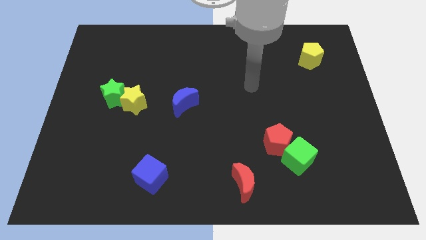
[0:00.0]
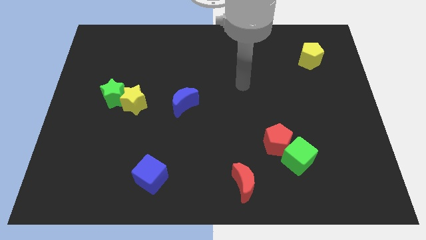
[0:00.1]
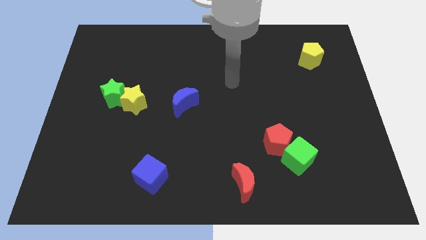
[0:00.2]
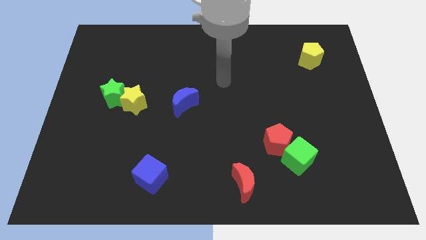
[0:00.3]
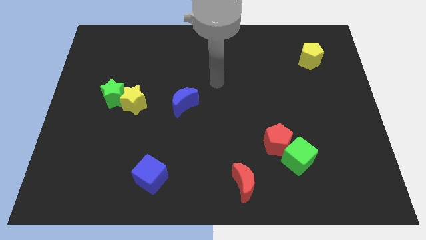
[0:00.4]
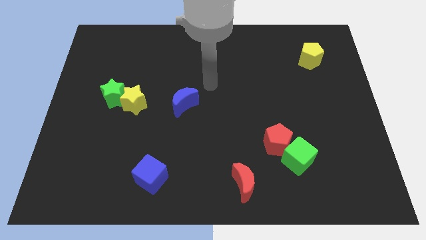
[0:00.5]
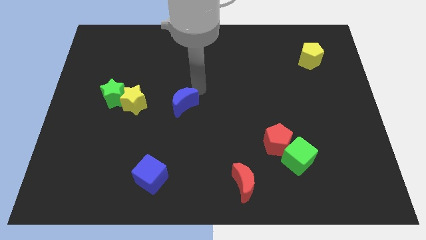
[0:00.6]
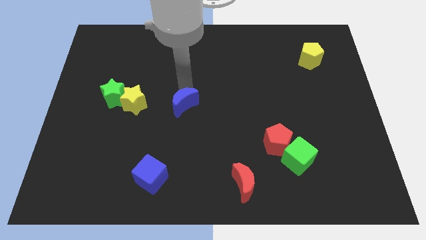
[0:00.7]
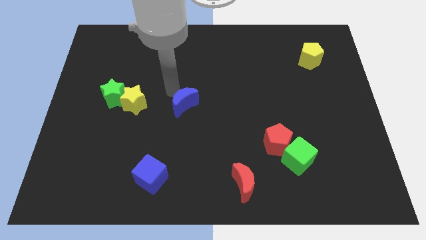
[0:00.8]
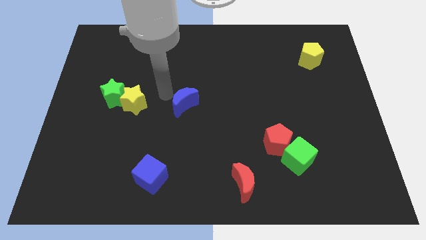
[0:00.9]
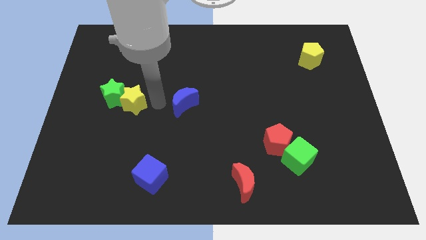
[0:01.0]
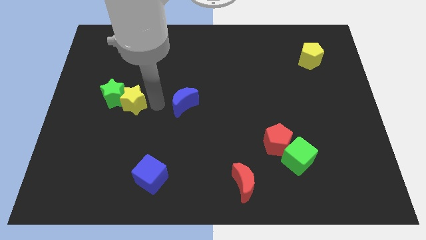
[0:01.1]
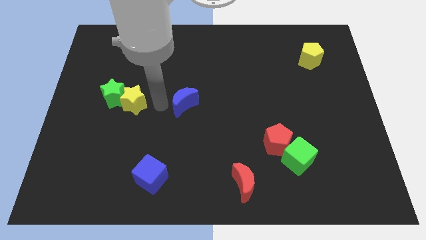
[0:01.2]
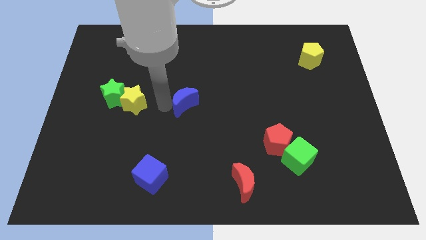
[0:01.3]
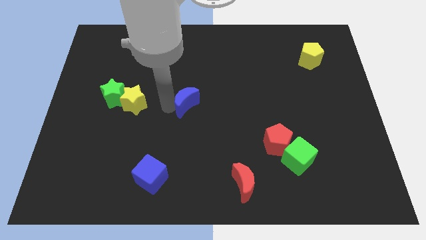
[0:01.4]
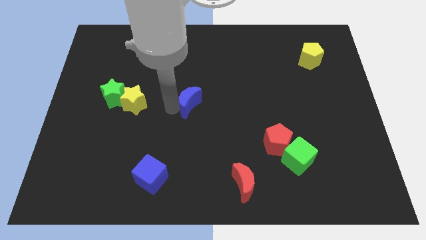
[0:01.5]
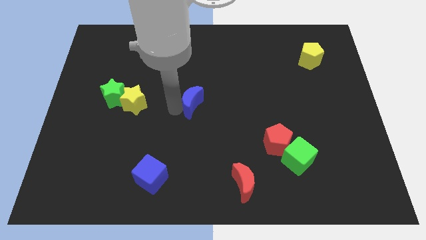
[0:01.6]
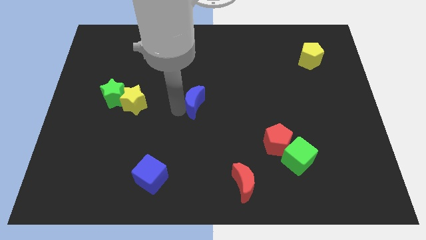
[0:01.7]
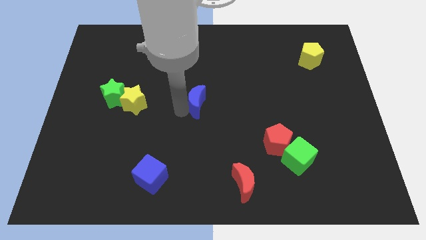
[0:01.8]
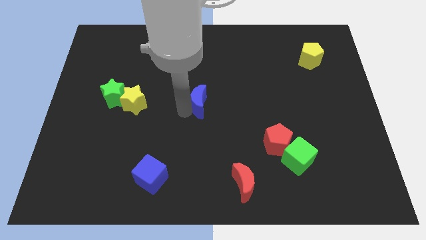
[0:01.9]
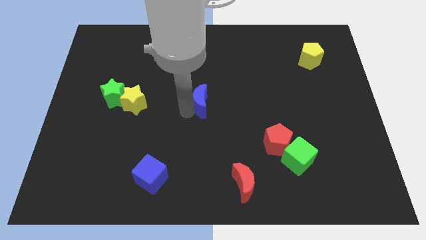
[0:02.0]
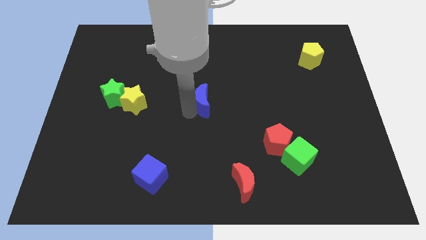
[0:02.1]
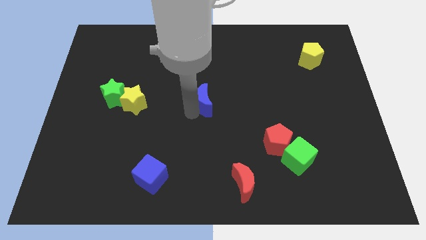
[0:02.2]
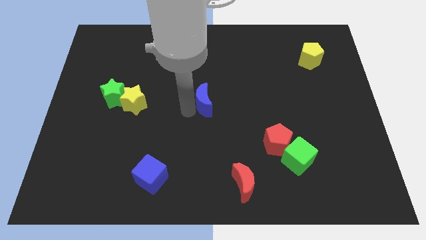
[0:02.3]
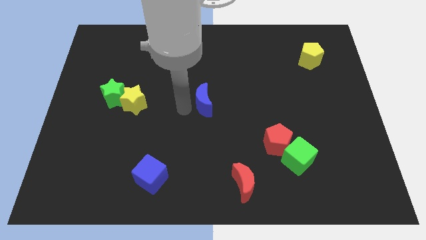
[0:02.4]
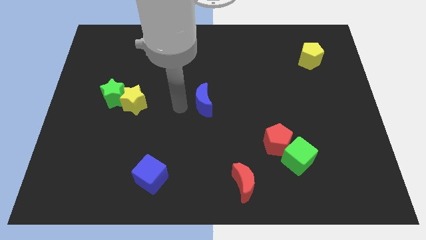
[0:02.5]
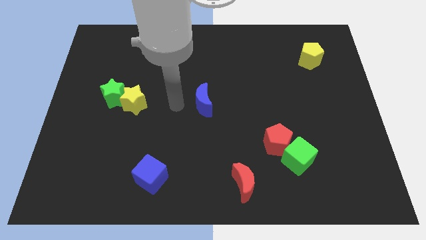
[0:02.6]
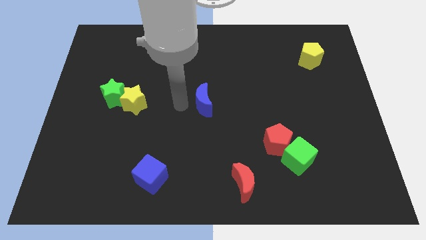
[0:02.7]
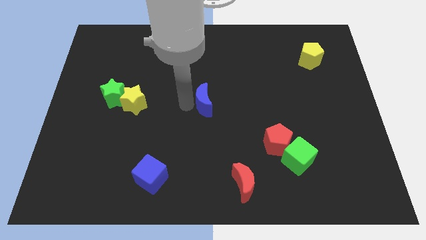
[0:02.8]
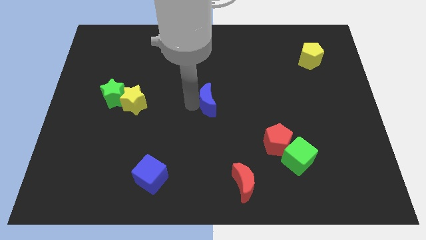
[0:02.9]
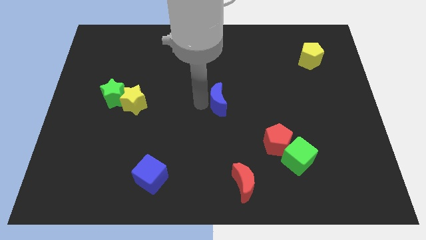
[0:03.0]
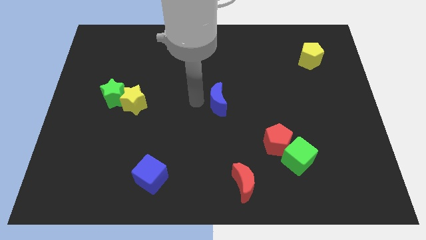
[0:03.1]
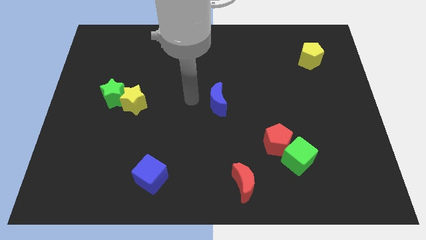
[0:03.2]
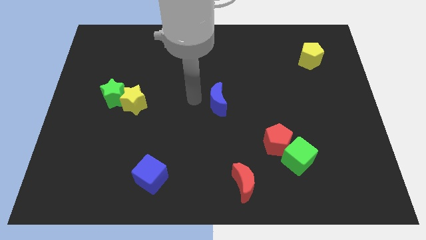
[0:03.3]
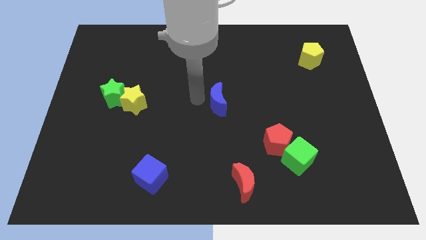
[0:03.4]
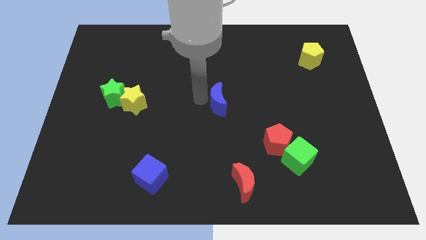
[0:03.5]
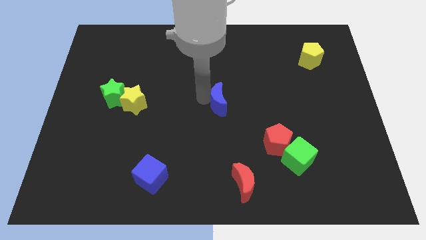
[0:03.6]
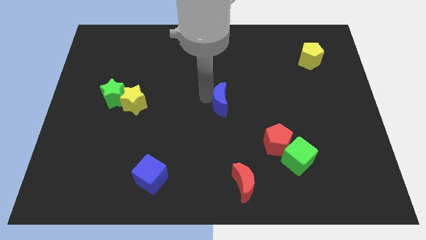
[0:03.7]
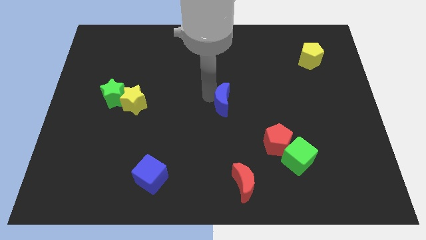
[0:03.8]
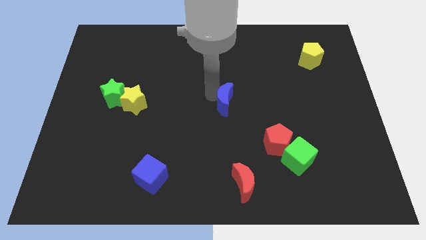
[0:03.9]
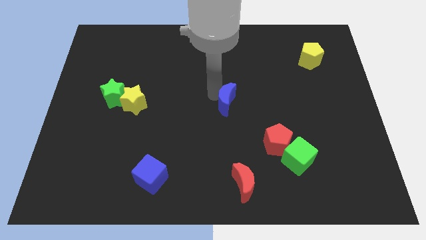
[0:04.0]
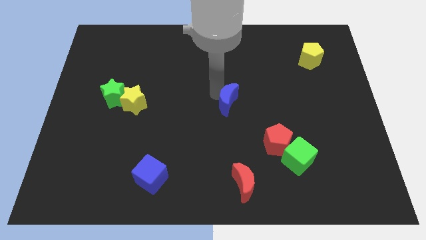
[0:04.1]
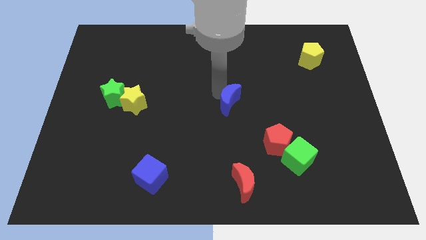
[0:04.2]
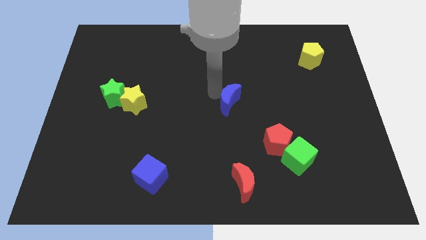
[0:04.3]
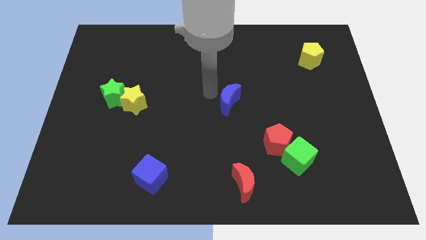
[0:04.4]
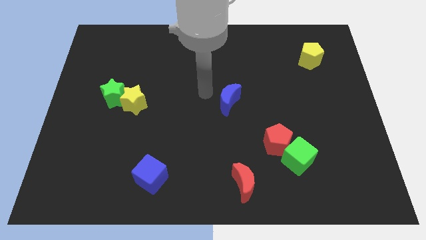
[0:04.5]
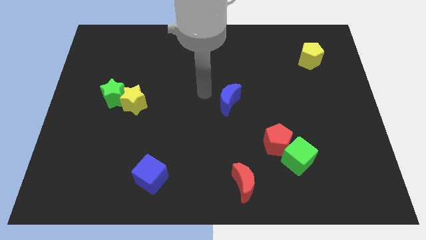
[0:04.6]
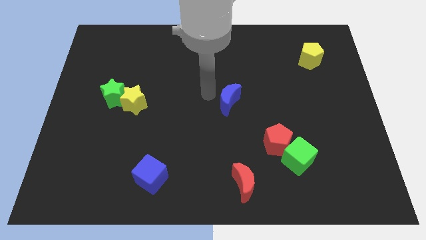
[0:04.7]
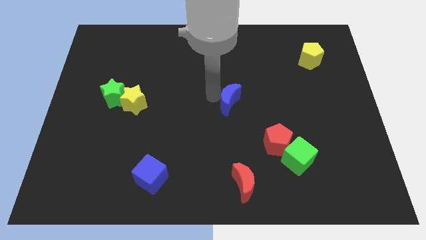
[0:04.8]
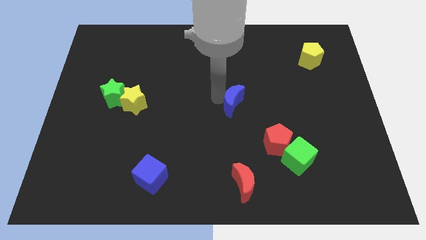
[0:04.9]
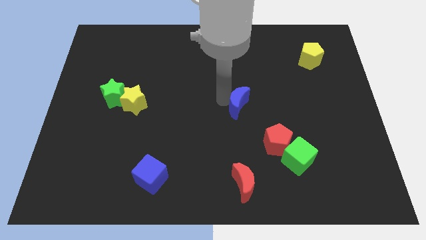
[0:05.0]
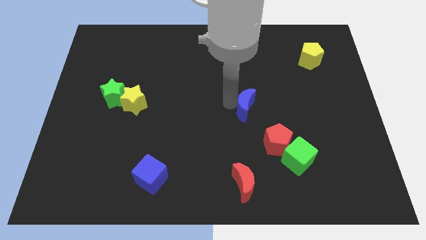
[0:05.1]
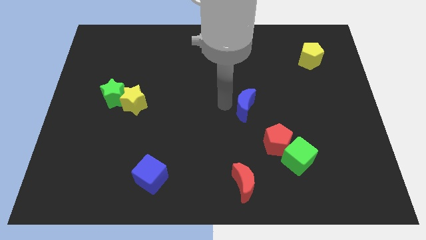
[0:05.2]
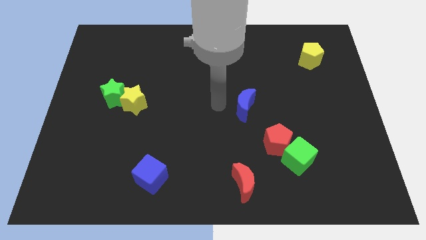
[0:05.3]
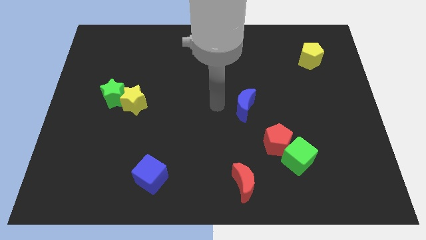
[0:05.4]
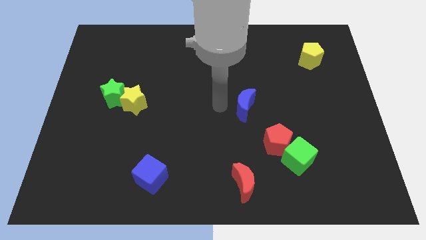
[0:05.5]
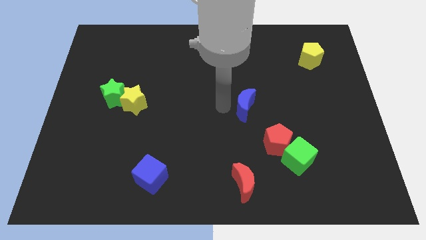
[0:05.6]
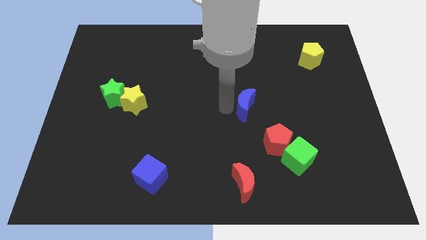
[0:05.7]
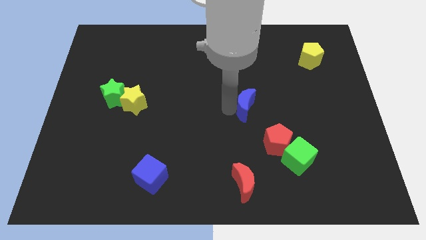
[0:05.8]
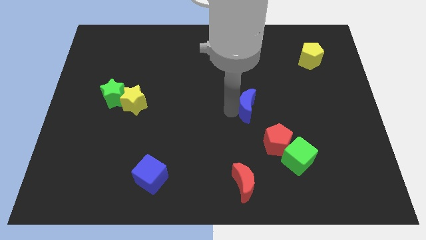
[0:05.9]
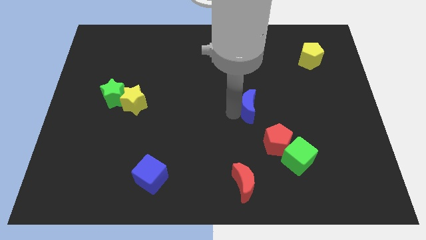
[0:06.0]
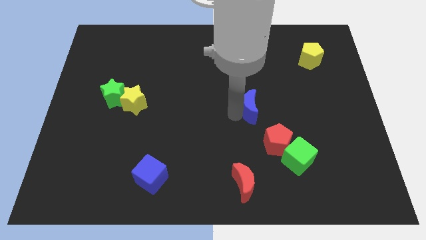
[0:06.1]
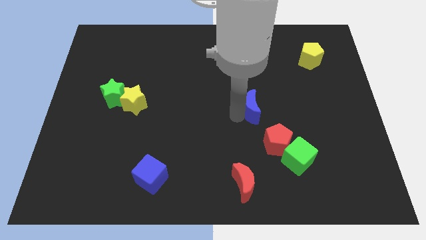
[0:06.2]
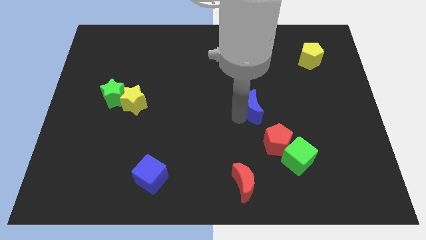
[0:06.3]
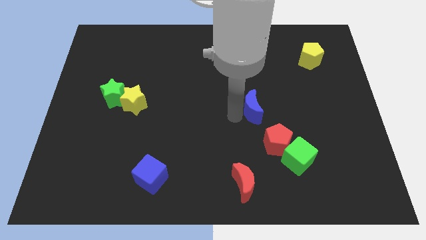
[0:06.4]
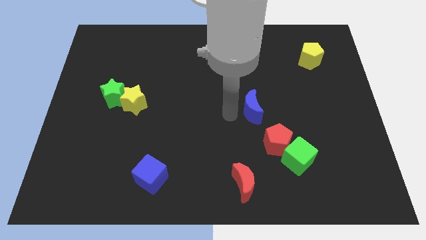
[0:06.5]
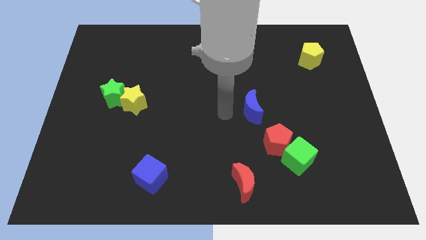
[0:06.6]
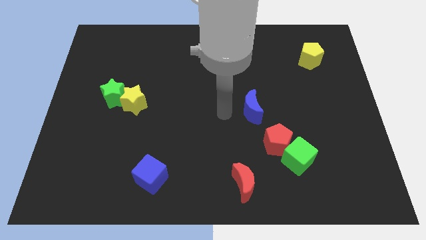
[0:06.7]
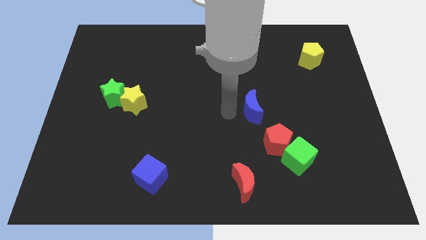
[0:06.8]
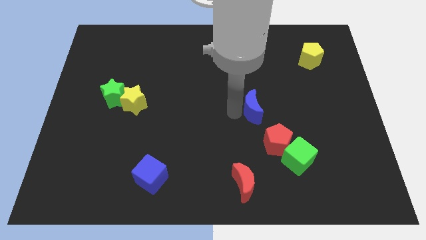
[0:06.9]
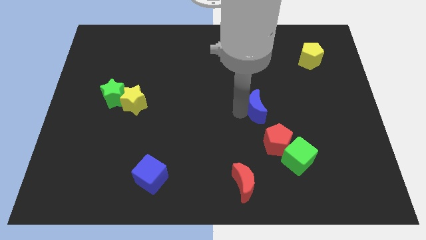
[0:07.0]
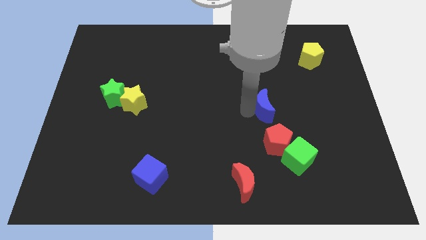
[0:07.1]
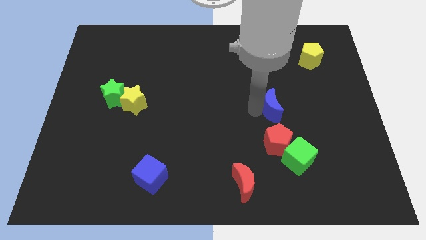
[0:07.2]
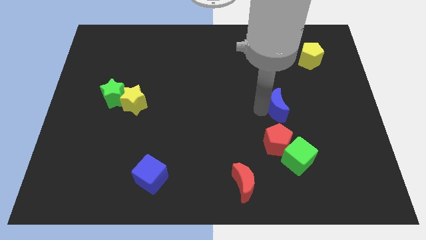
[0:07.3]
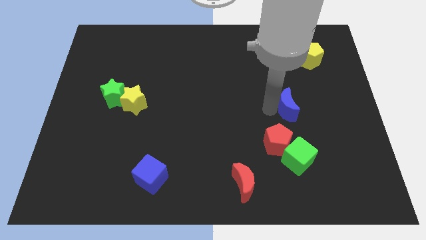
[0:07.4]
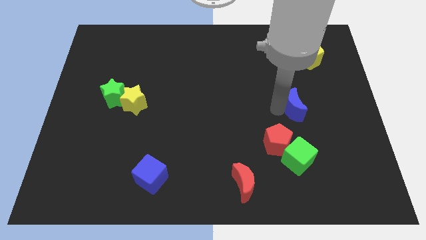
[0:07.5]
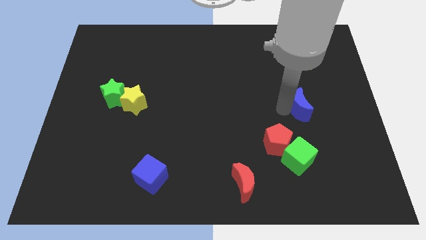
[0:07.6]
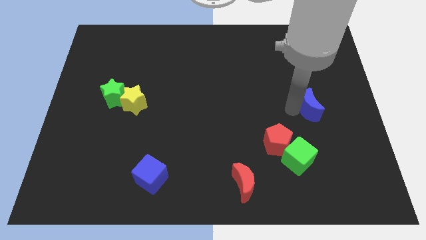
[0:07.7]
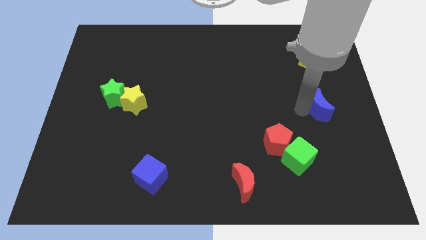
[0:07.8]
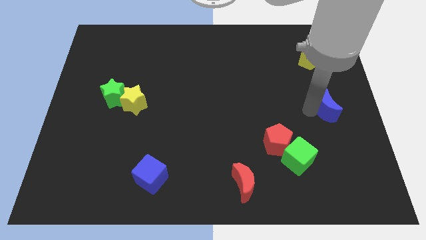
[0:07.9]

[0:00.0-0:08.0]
move the blue moon to the center right
